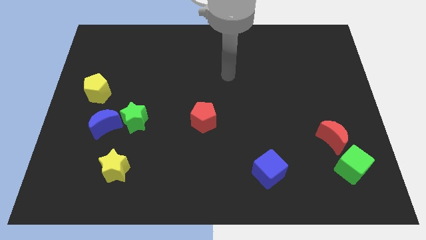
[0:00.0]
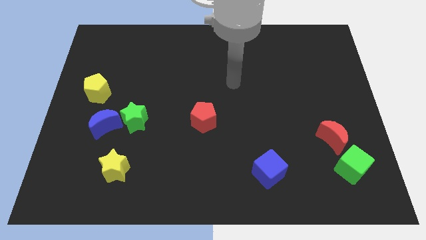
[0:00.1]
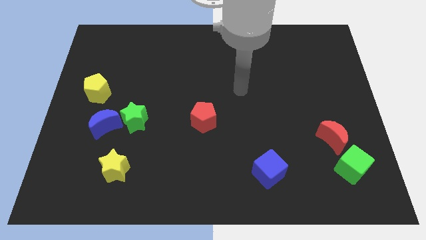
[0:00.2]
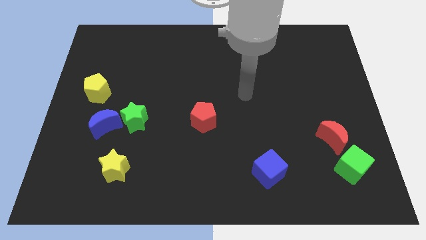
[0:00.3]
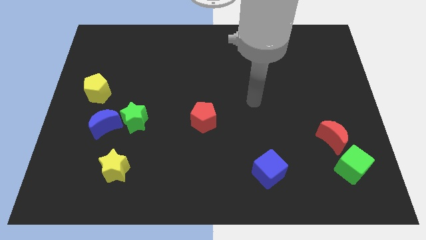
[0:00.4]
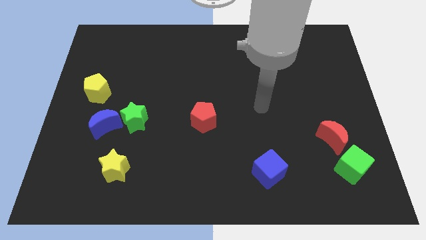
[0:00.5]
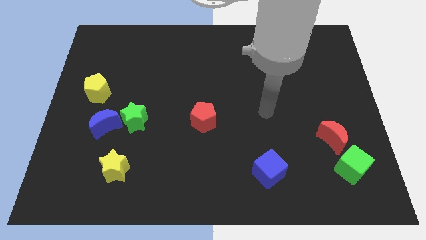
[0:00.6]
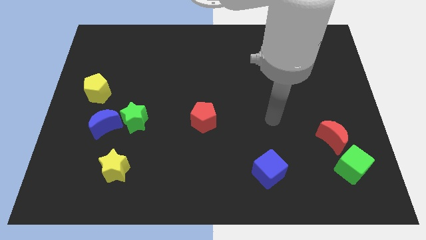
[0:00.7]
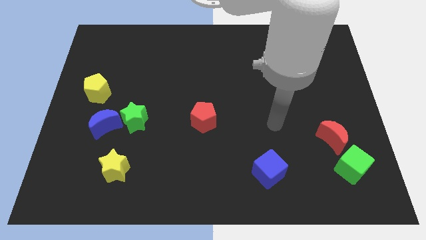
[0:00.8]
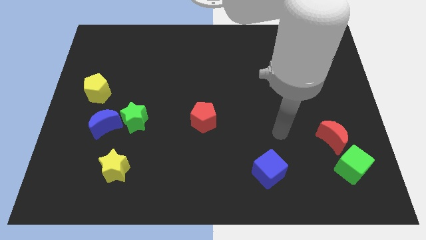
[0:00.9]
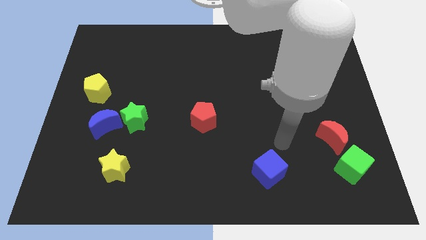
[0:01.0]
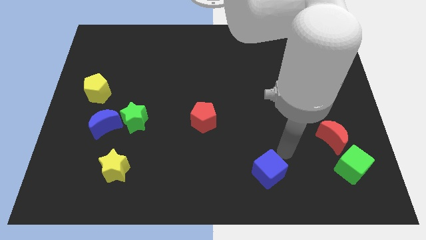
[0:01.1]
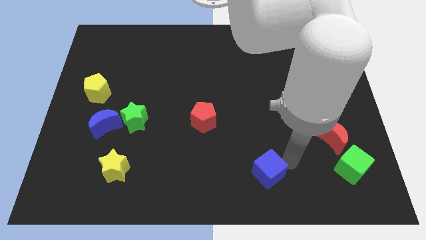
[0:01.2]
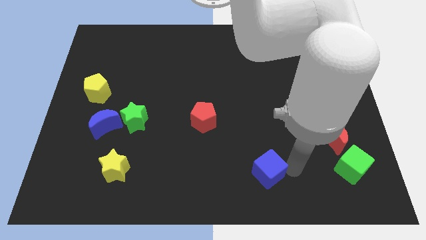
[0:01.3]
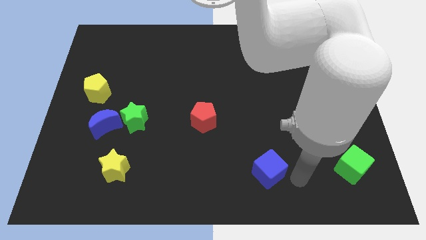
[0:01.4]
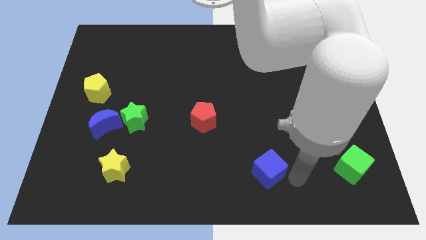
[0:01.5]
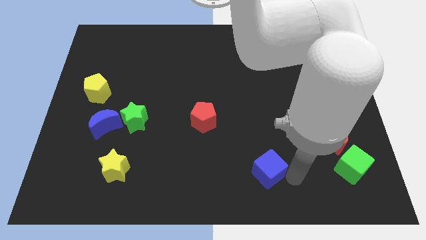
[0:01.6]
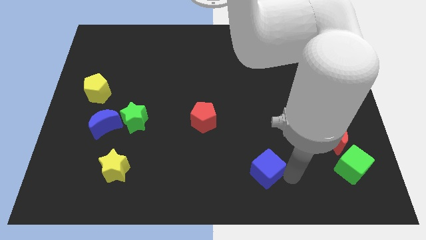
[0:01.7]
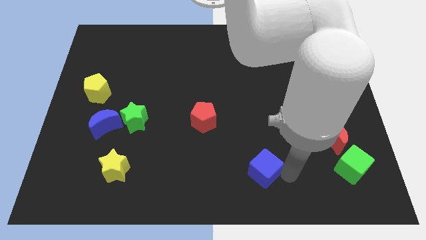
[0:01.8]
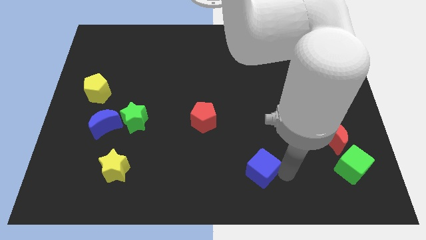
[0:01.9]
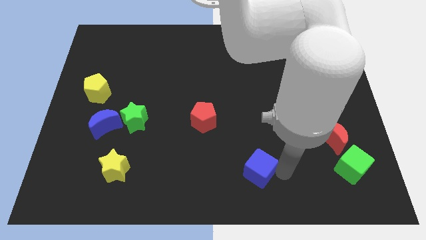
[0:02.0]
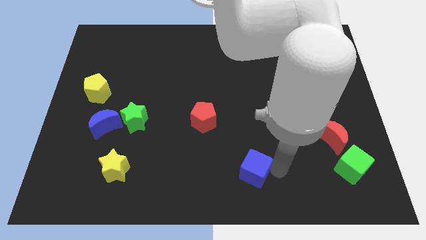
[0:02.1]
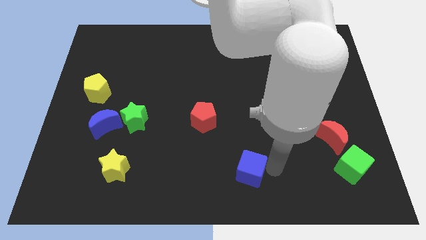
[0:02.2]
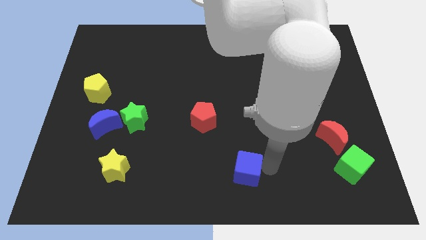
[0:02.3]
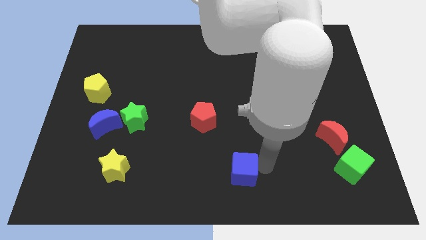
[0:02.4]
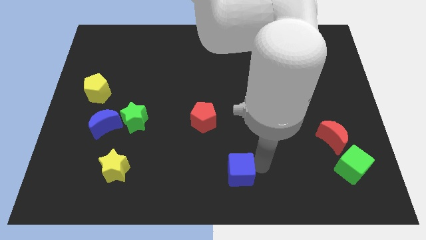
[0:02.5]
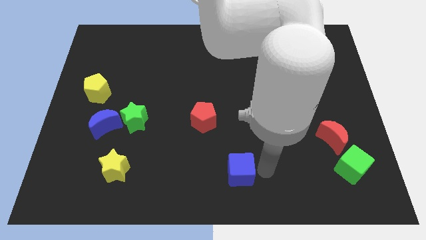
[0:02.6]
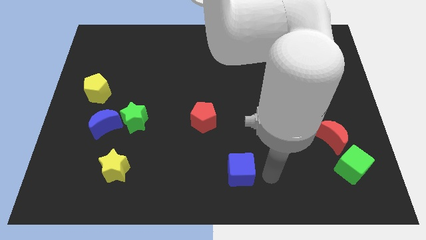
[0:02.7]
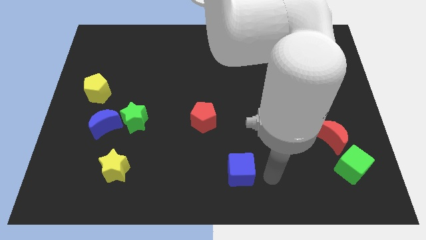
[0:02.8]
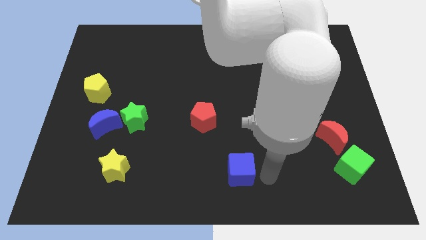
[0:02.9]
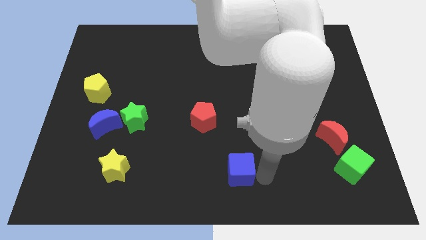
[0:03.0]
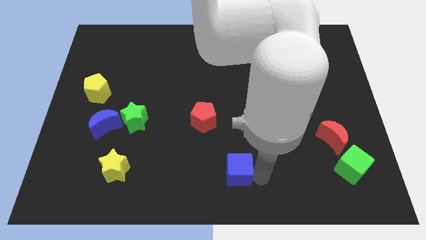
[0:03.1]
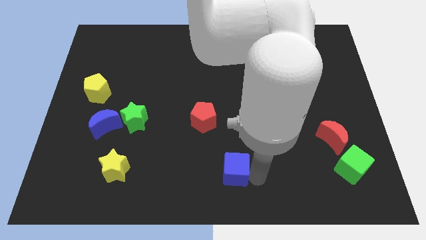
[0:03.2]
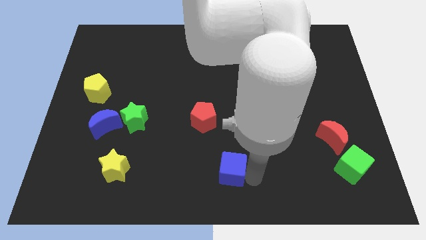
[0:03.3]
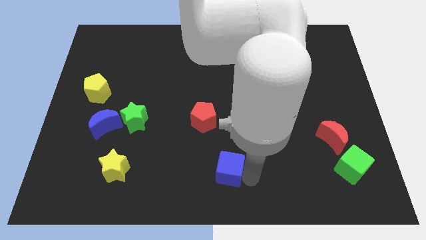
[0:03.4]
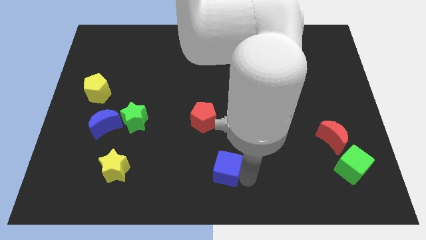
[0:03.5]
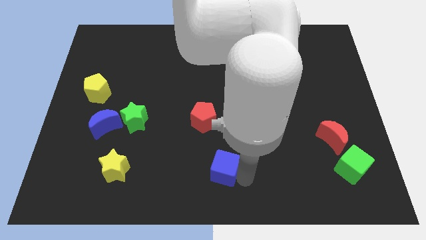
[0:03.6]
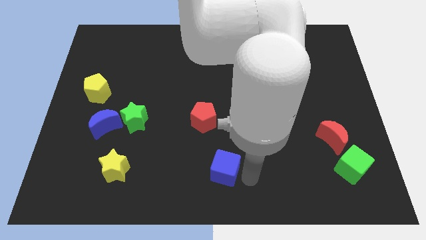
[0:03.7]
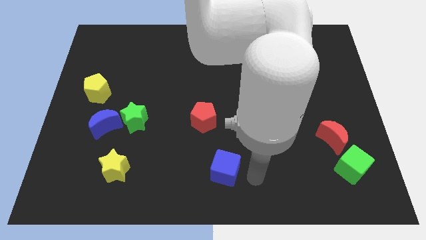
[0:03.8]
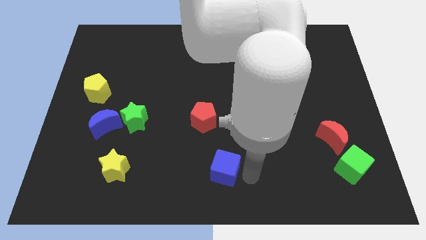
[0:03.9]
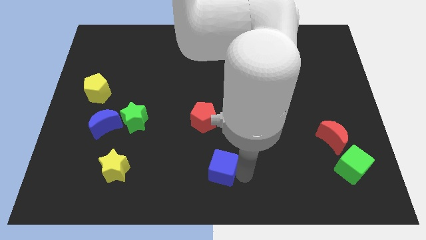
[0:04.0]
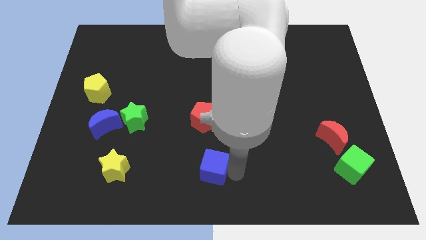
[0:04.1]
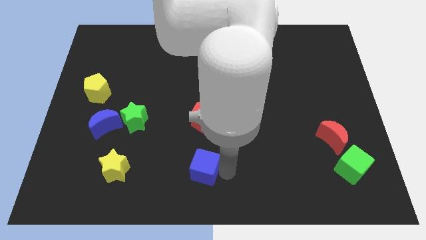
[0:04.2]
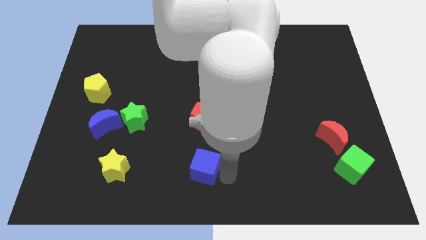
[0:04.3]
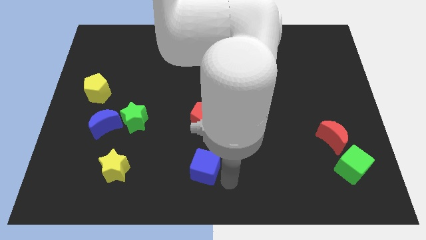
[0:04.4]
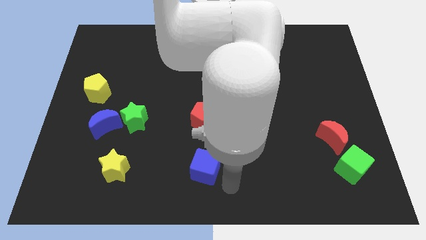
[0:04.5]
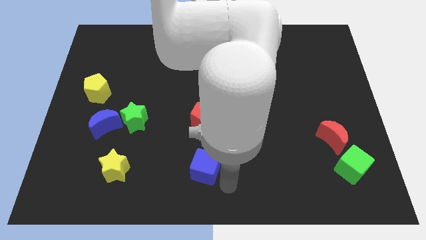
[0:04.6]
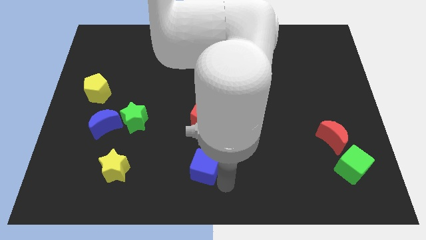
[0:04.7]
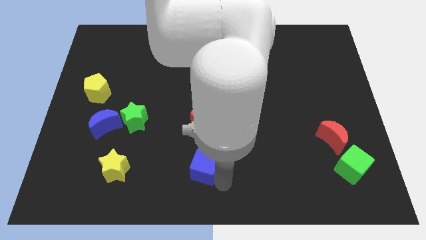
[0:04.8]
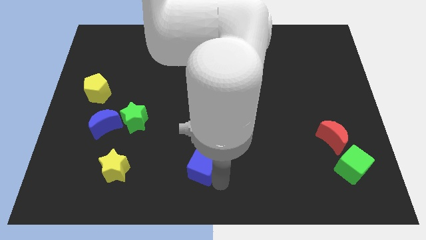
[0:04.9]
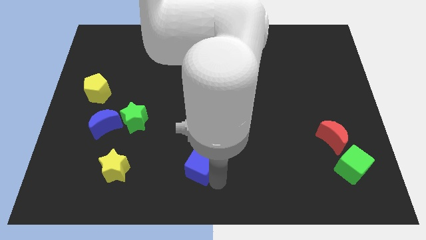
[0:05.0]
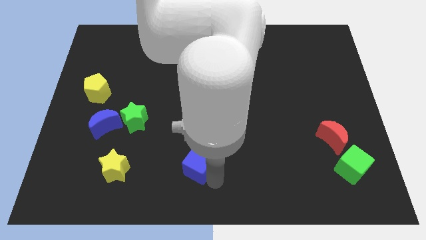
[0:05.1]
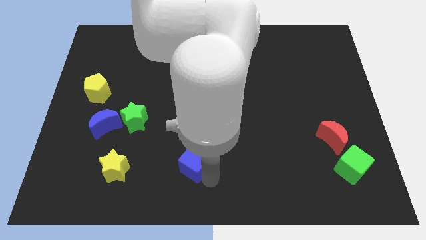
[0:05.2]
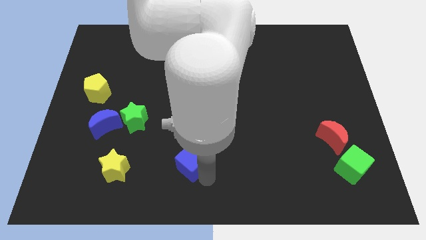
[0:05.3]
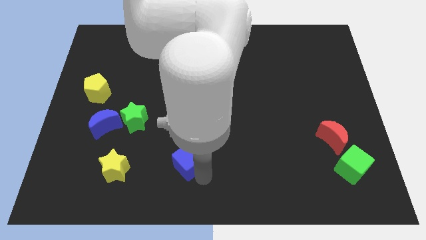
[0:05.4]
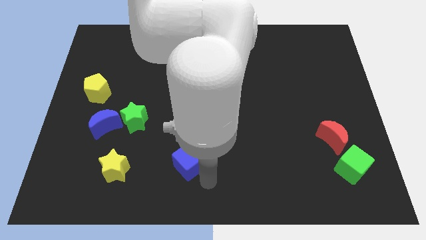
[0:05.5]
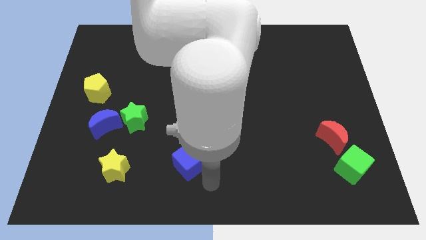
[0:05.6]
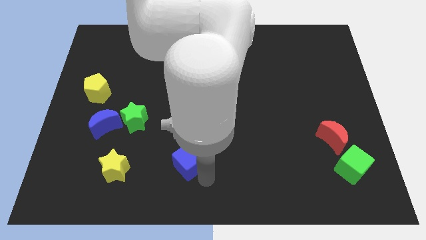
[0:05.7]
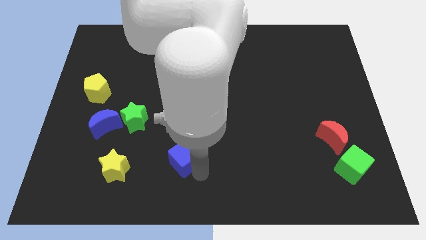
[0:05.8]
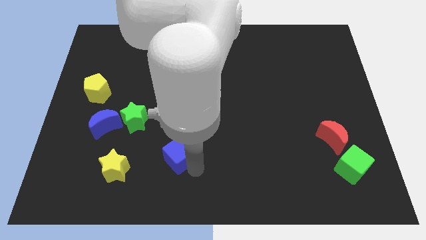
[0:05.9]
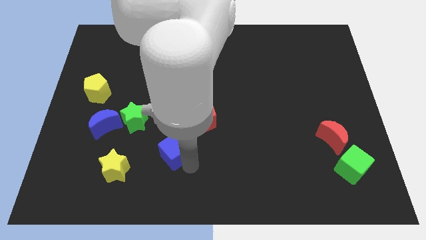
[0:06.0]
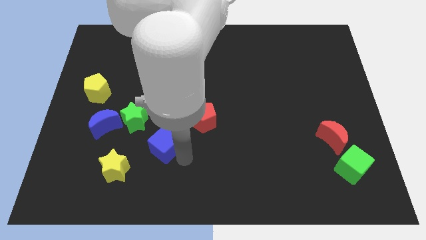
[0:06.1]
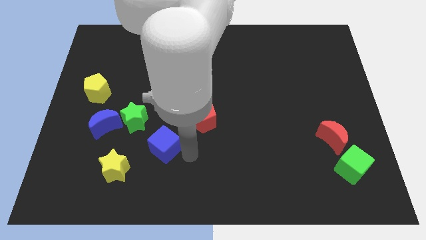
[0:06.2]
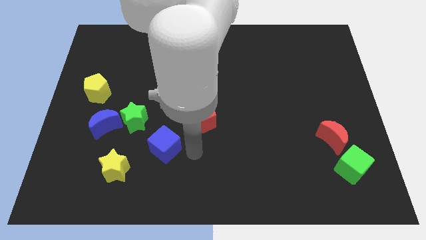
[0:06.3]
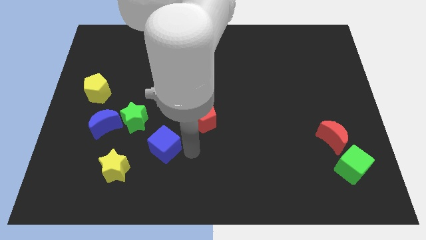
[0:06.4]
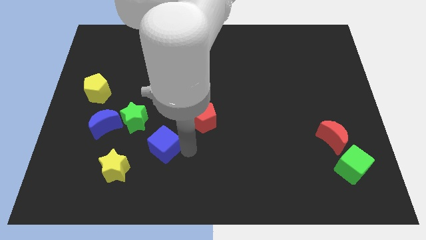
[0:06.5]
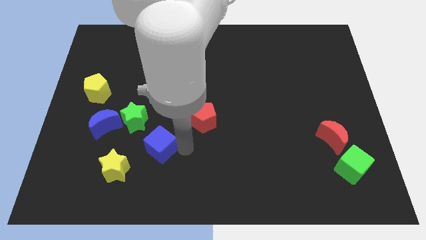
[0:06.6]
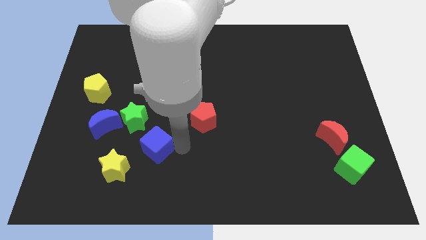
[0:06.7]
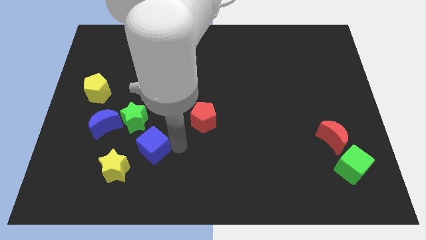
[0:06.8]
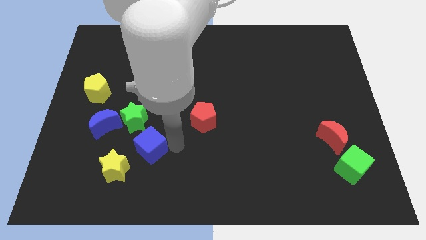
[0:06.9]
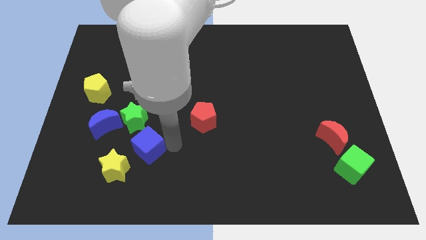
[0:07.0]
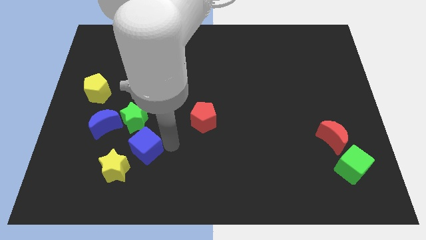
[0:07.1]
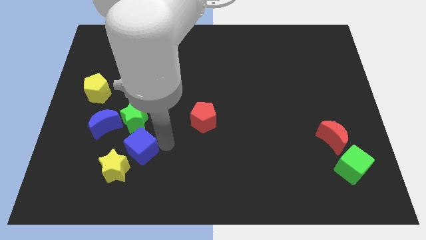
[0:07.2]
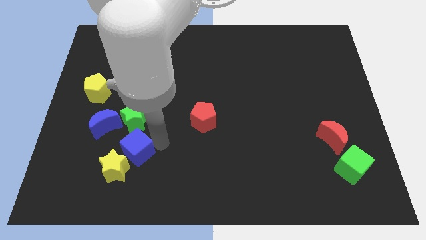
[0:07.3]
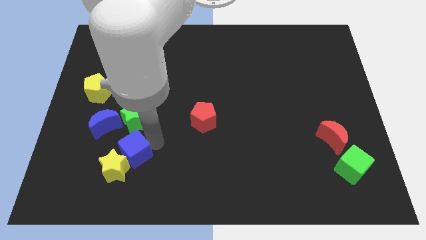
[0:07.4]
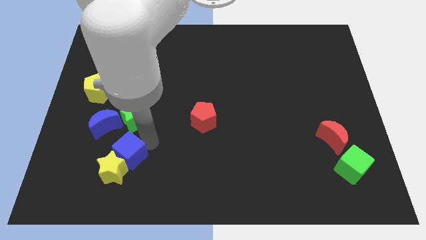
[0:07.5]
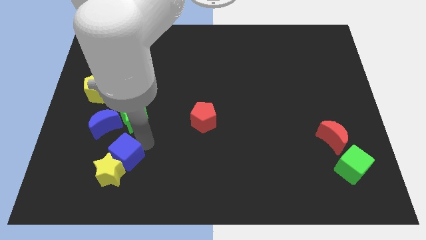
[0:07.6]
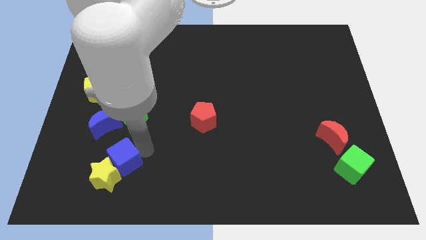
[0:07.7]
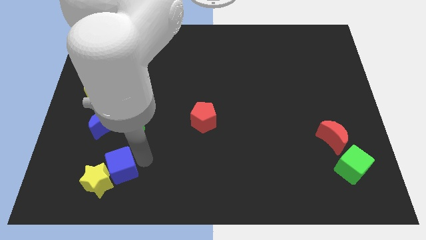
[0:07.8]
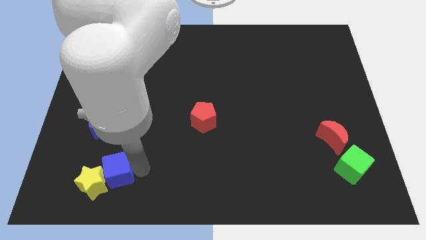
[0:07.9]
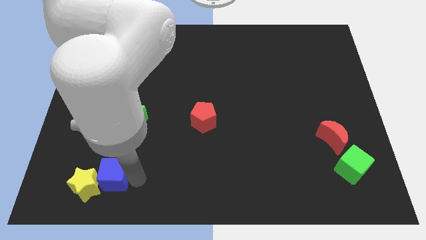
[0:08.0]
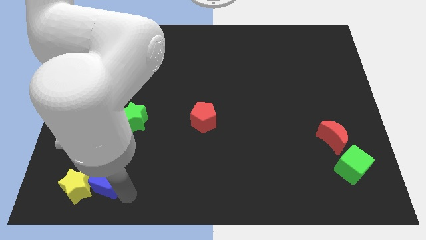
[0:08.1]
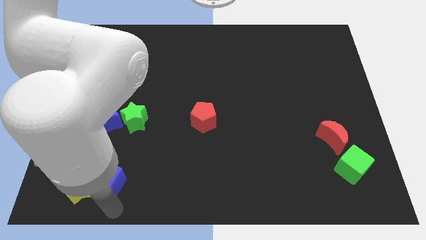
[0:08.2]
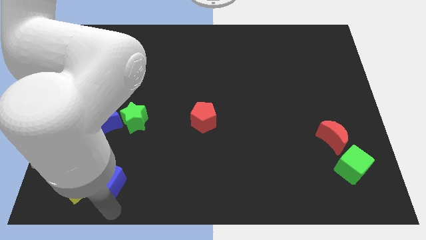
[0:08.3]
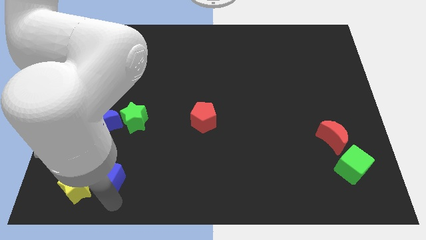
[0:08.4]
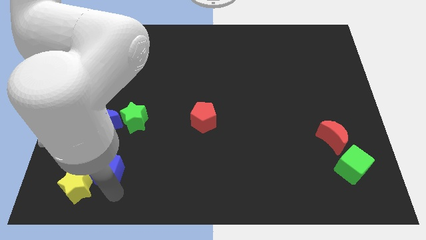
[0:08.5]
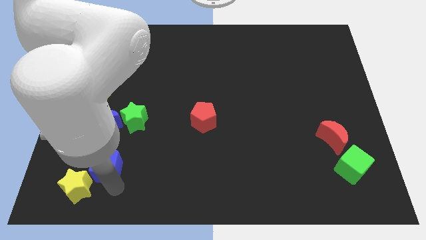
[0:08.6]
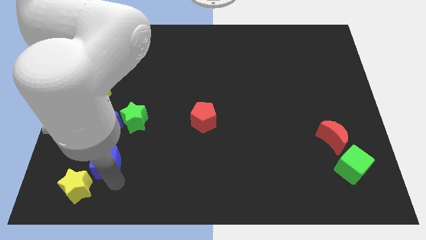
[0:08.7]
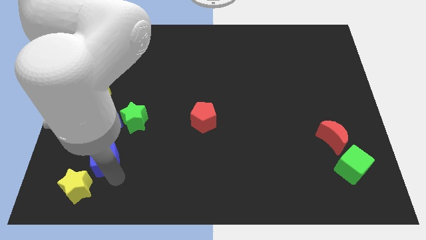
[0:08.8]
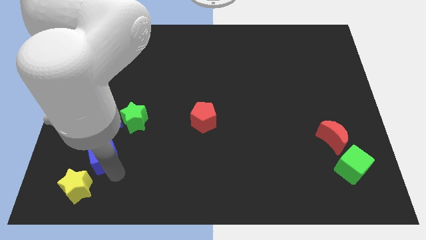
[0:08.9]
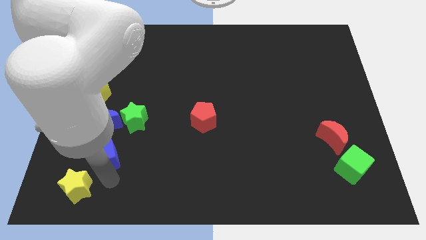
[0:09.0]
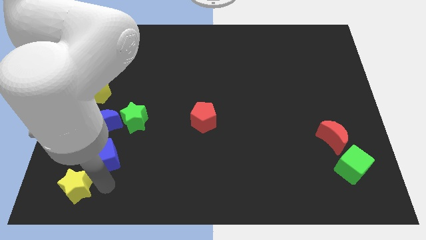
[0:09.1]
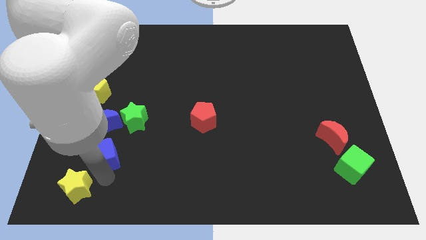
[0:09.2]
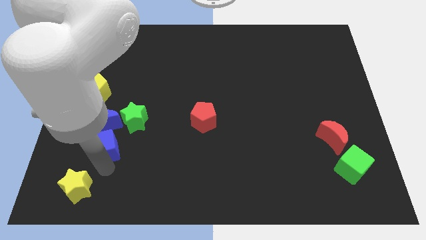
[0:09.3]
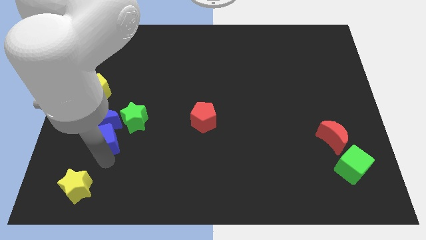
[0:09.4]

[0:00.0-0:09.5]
slide the blue cube next to the blue moon
